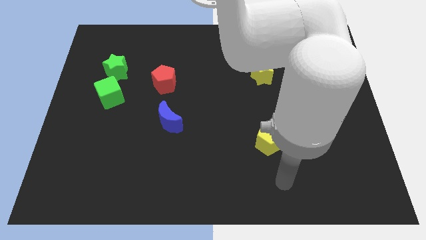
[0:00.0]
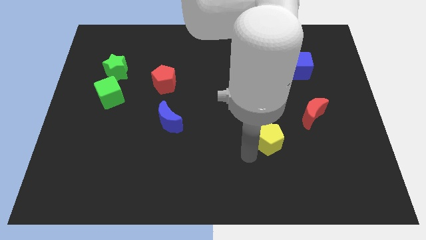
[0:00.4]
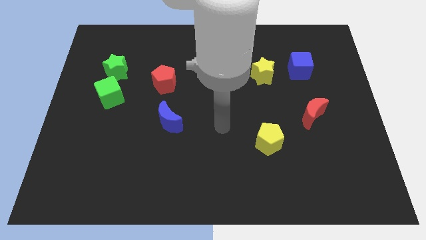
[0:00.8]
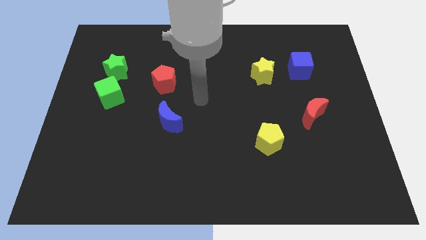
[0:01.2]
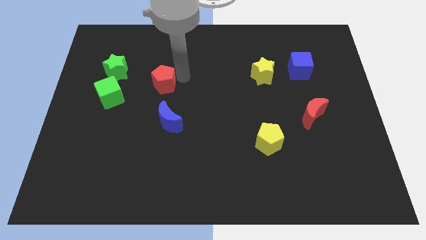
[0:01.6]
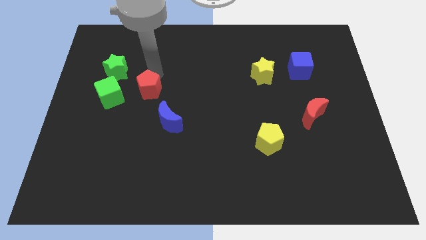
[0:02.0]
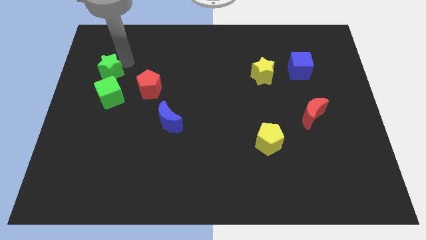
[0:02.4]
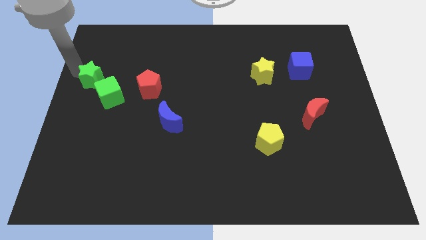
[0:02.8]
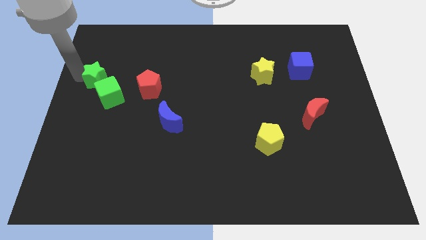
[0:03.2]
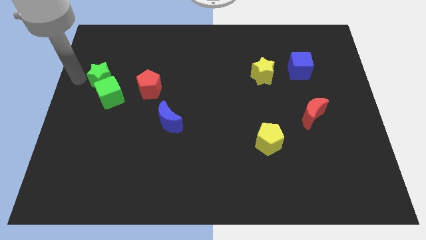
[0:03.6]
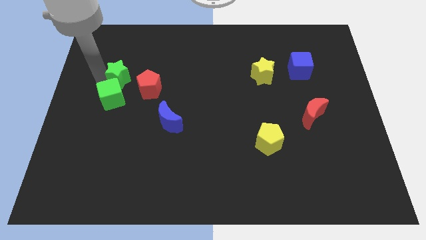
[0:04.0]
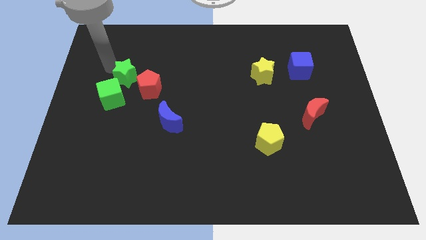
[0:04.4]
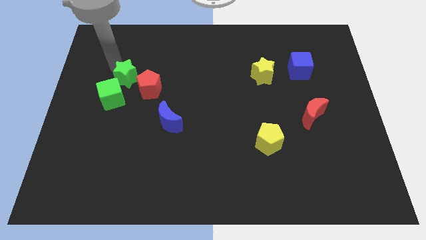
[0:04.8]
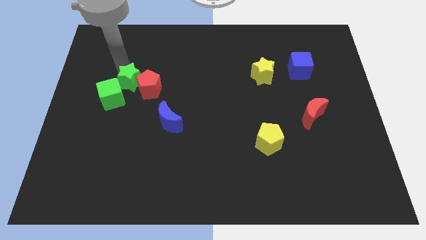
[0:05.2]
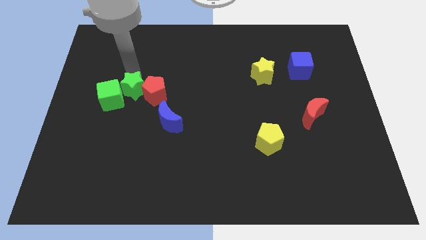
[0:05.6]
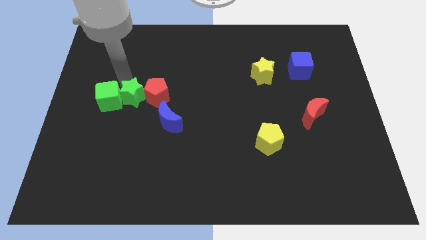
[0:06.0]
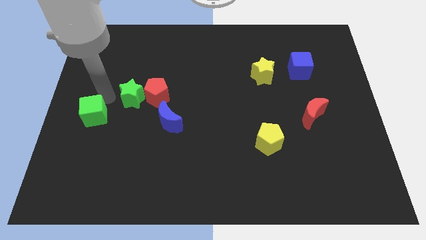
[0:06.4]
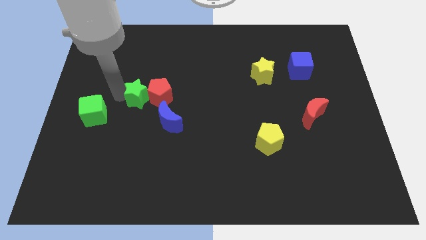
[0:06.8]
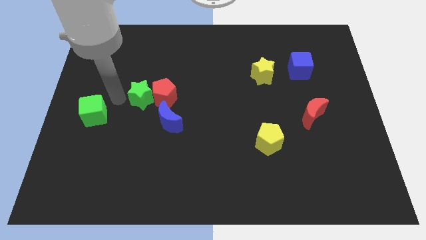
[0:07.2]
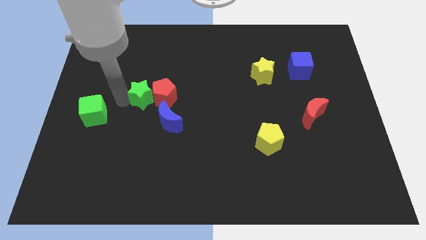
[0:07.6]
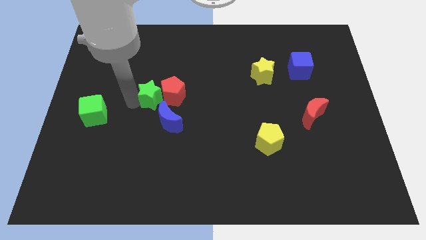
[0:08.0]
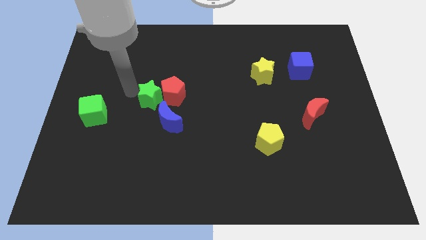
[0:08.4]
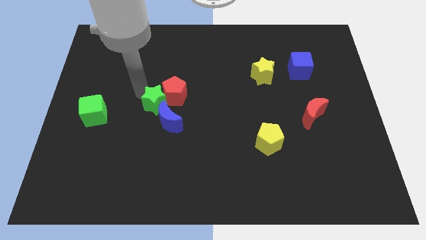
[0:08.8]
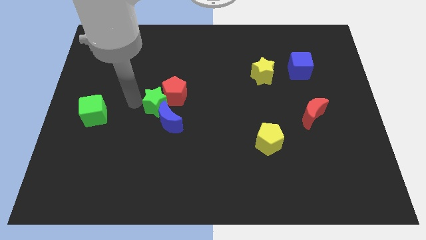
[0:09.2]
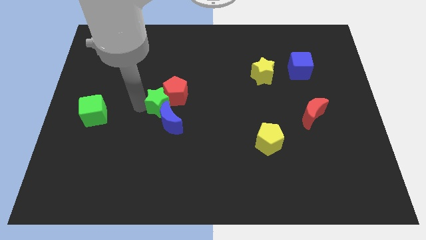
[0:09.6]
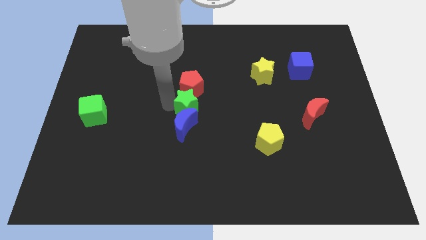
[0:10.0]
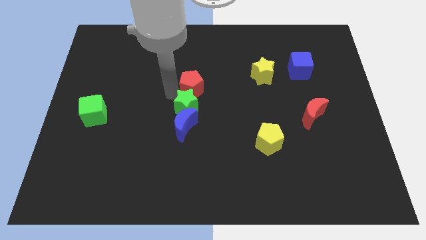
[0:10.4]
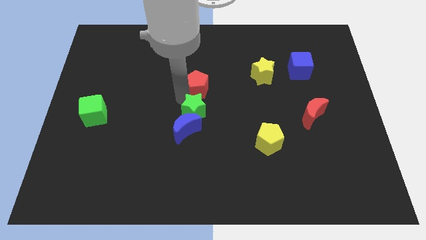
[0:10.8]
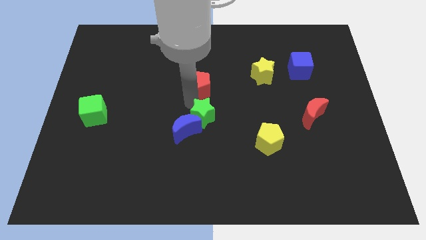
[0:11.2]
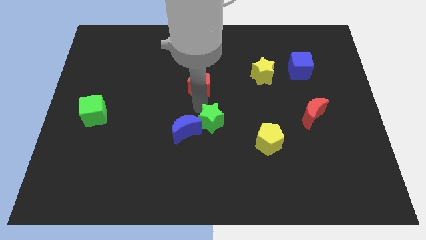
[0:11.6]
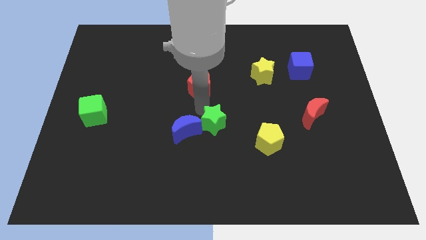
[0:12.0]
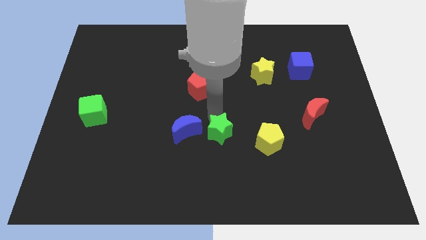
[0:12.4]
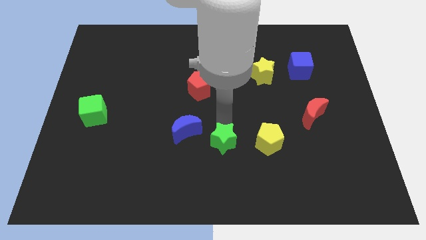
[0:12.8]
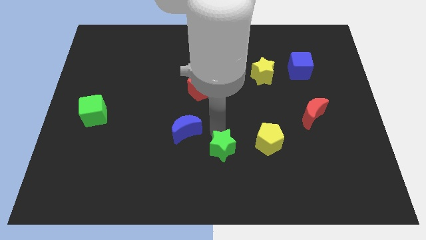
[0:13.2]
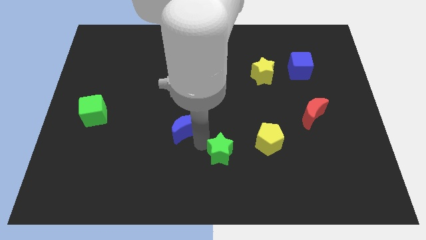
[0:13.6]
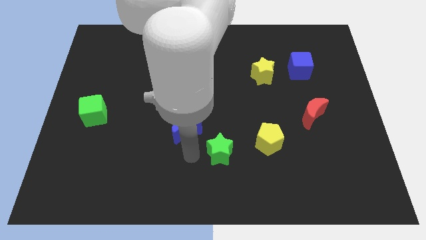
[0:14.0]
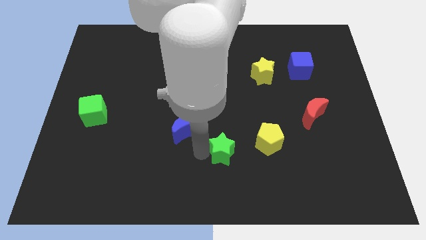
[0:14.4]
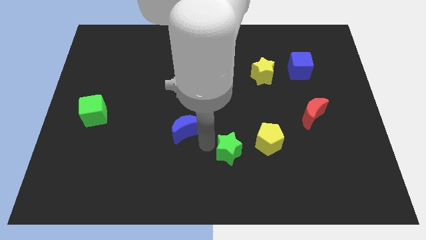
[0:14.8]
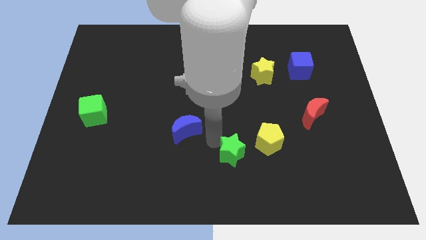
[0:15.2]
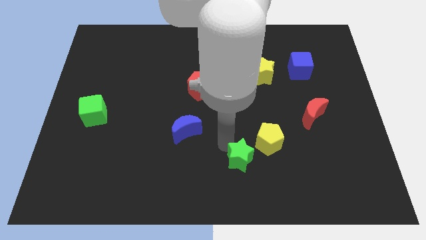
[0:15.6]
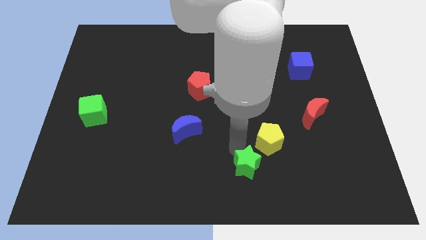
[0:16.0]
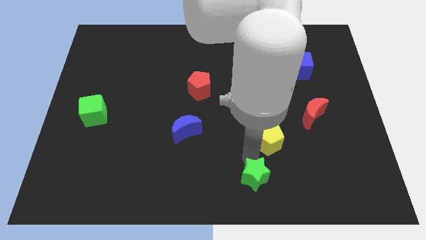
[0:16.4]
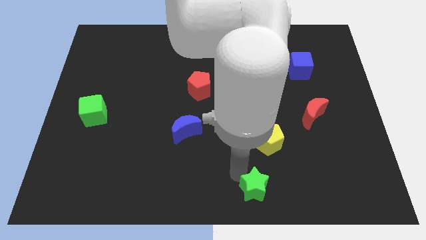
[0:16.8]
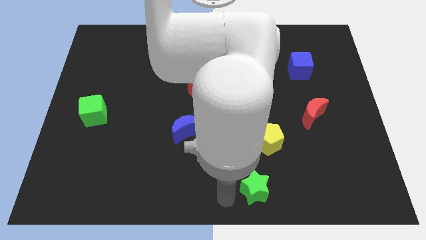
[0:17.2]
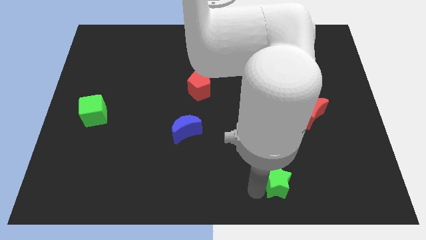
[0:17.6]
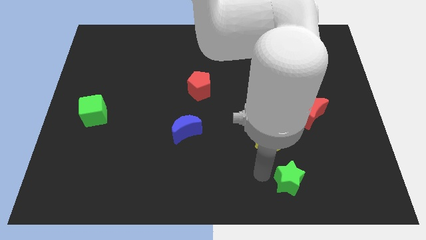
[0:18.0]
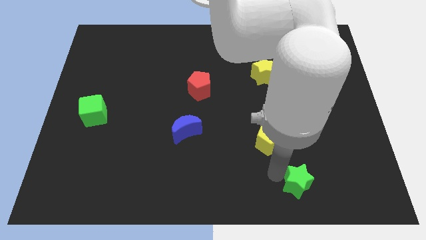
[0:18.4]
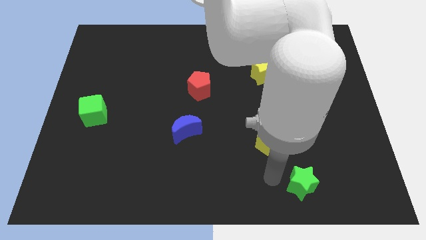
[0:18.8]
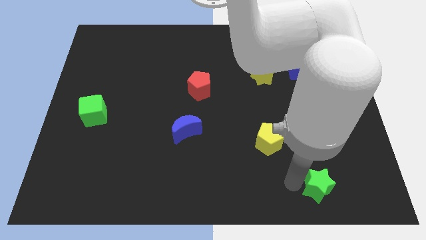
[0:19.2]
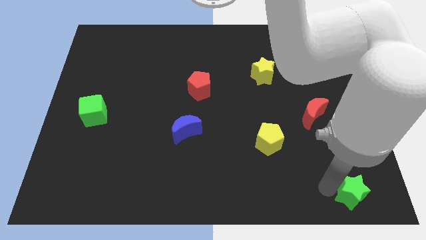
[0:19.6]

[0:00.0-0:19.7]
push the green star to the bottom right of the board

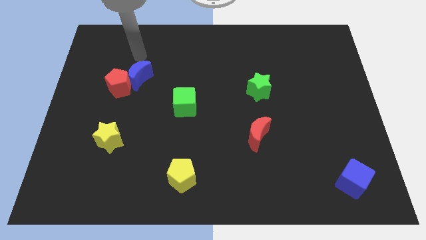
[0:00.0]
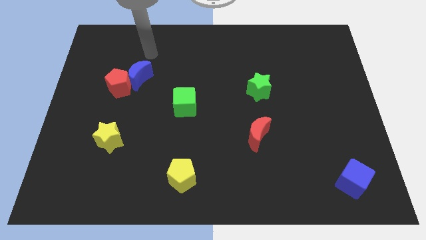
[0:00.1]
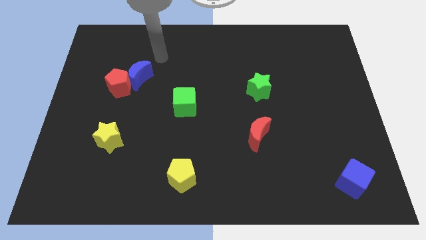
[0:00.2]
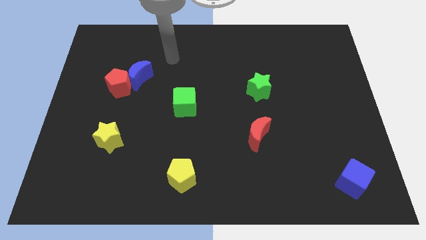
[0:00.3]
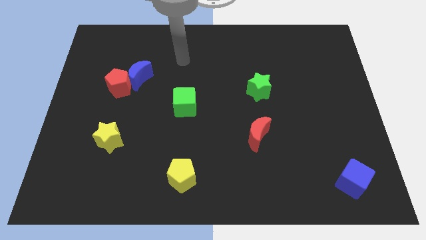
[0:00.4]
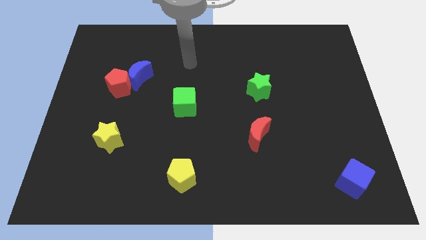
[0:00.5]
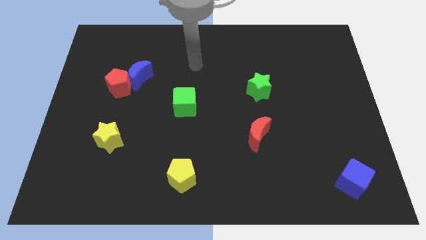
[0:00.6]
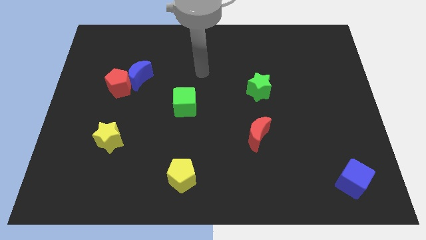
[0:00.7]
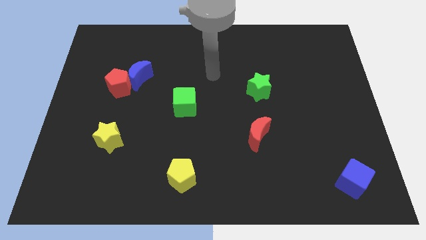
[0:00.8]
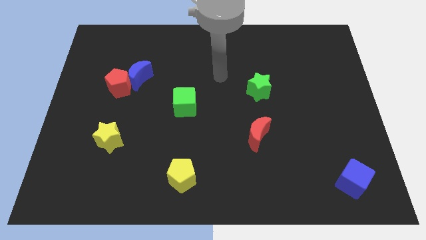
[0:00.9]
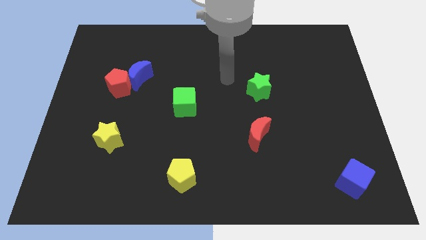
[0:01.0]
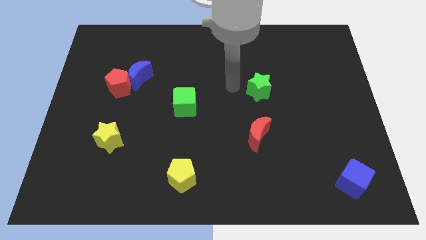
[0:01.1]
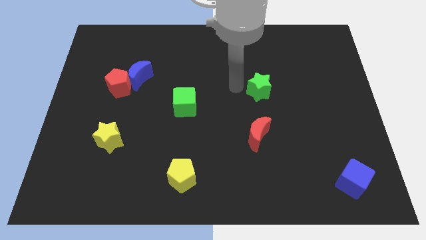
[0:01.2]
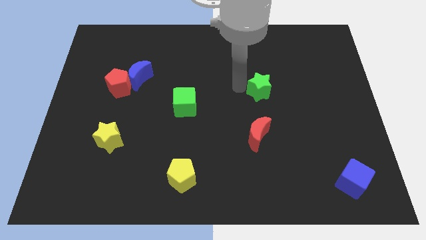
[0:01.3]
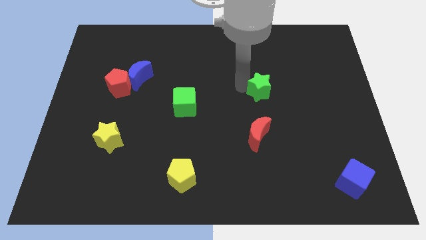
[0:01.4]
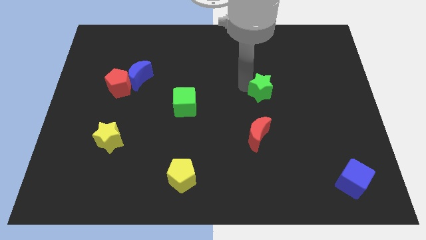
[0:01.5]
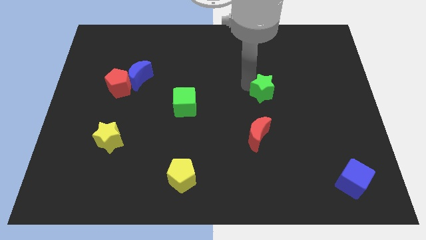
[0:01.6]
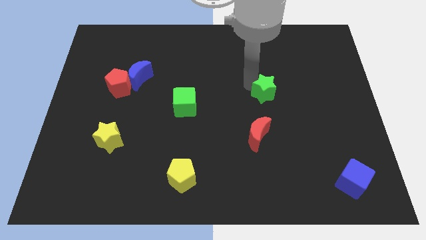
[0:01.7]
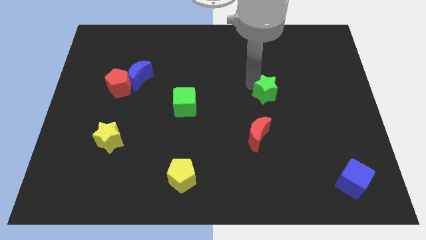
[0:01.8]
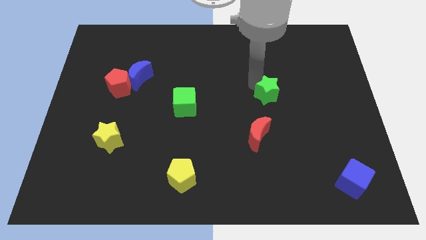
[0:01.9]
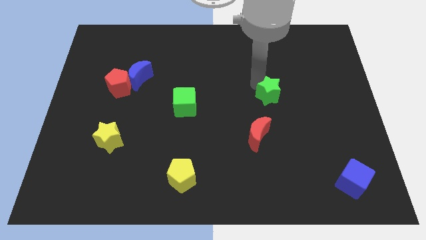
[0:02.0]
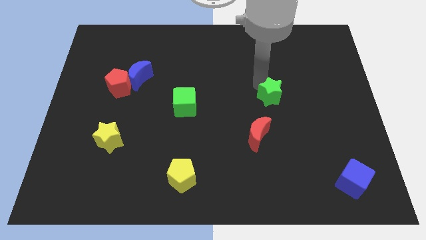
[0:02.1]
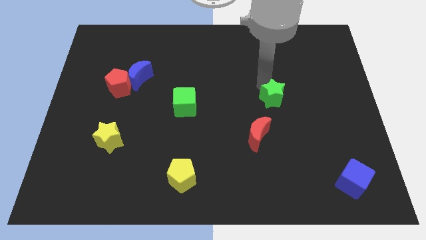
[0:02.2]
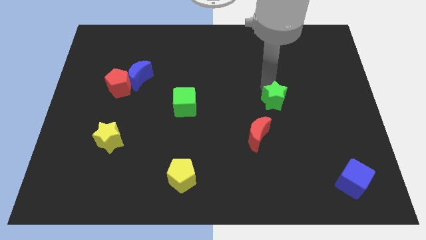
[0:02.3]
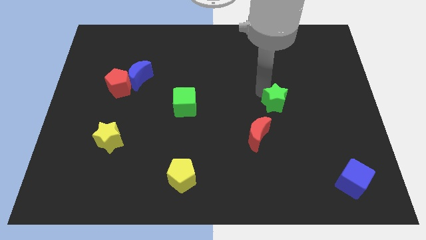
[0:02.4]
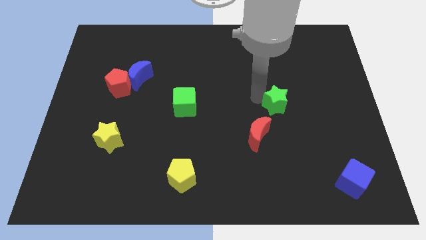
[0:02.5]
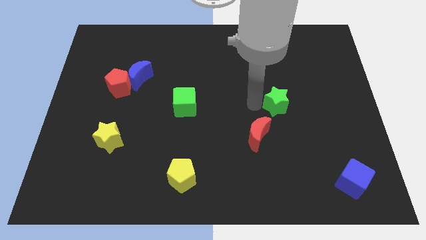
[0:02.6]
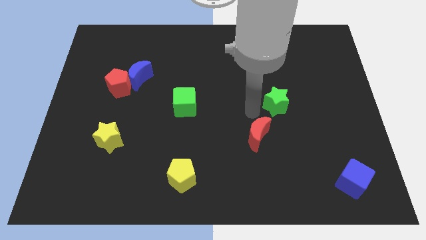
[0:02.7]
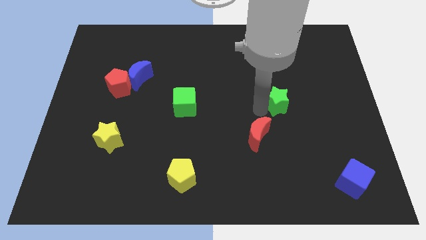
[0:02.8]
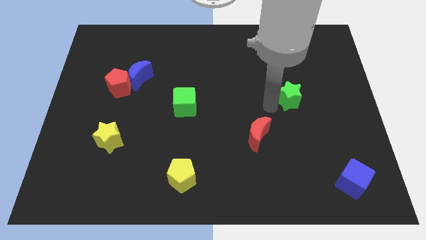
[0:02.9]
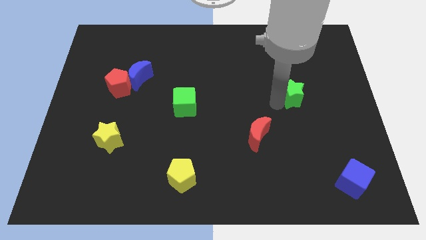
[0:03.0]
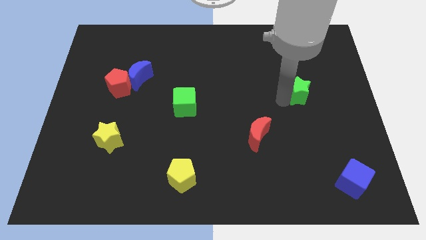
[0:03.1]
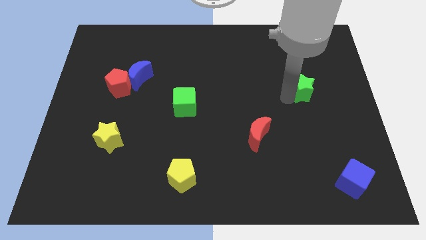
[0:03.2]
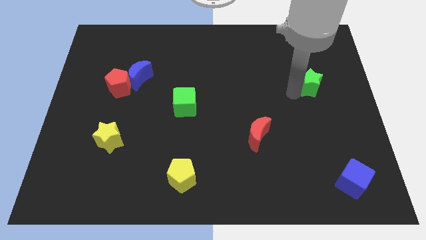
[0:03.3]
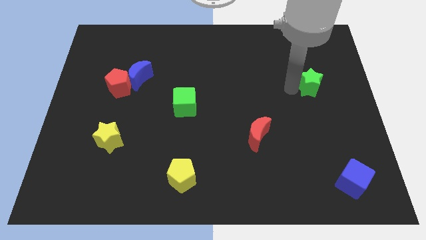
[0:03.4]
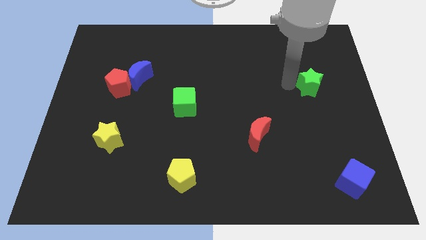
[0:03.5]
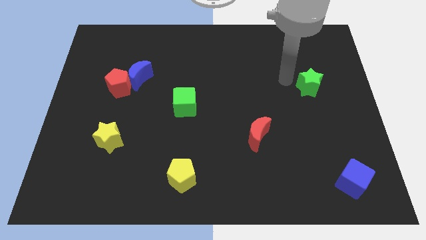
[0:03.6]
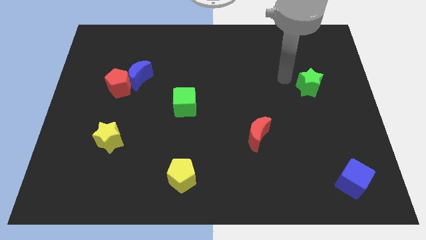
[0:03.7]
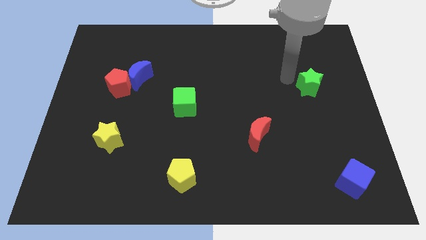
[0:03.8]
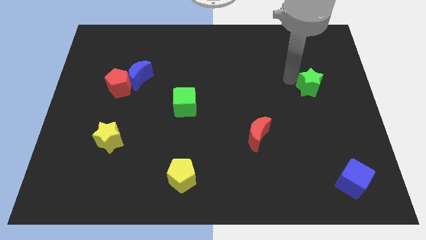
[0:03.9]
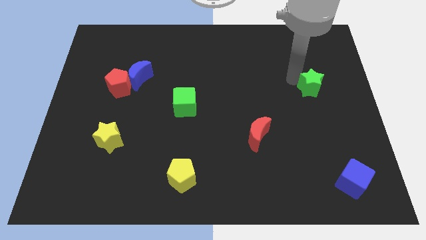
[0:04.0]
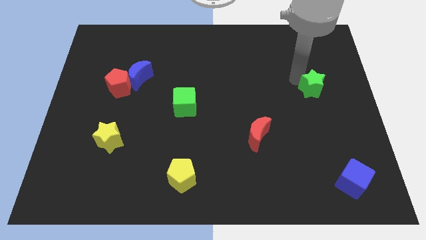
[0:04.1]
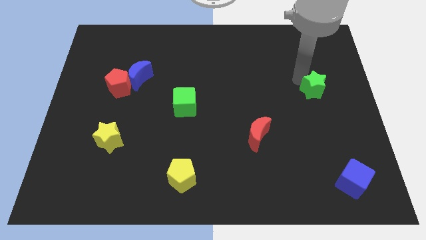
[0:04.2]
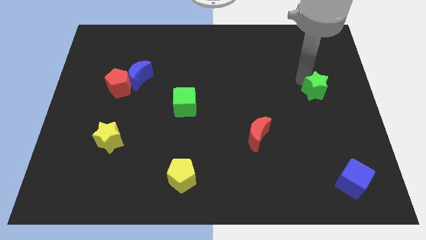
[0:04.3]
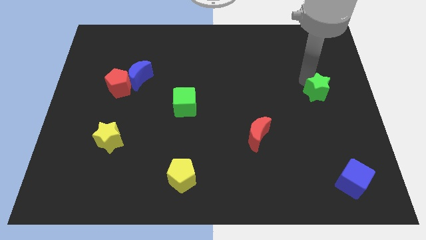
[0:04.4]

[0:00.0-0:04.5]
move the green star to the center right
